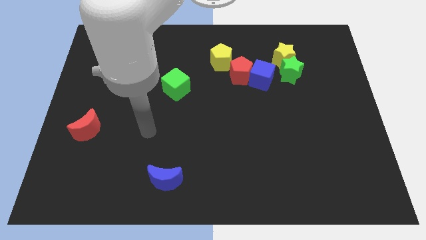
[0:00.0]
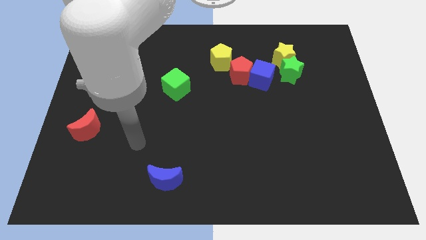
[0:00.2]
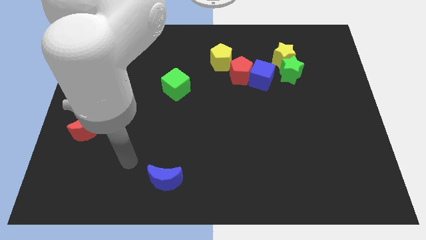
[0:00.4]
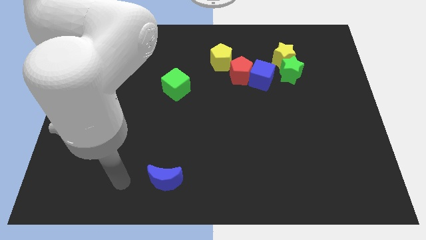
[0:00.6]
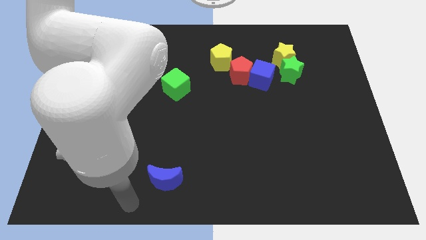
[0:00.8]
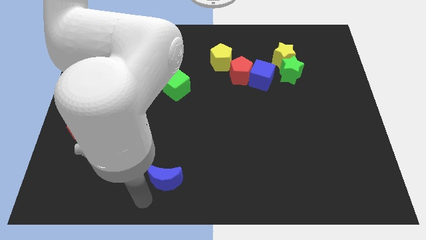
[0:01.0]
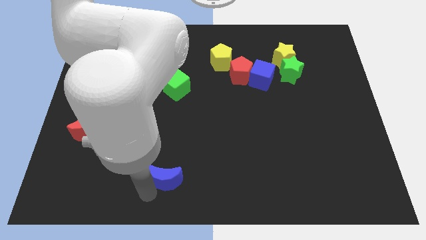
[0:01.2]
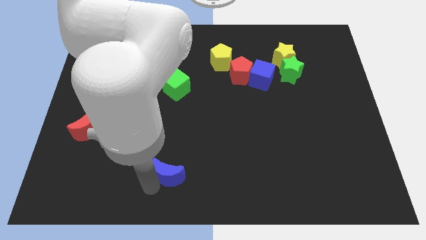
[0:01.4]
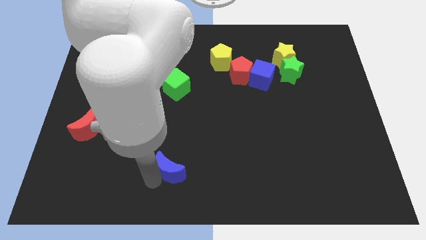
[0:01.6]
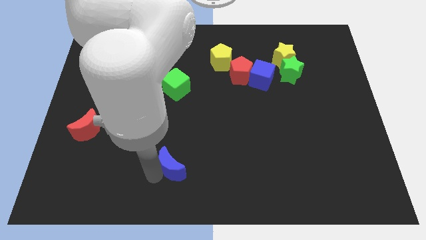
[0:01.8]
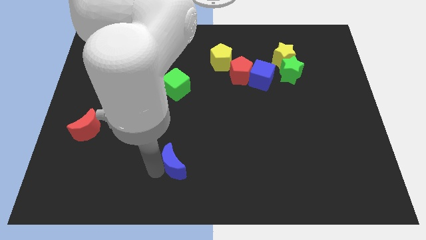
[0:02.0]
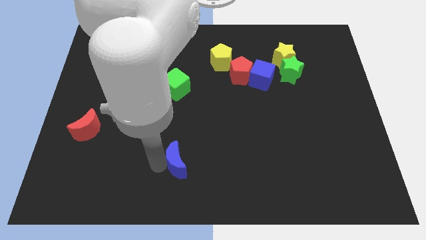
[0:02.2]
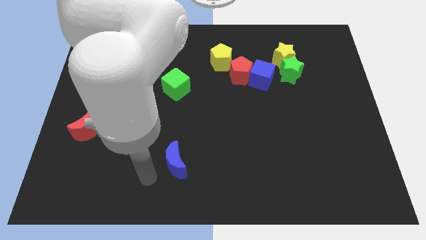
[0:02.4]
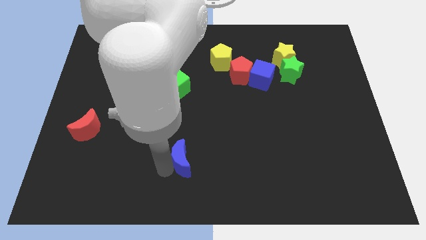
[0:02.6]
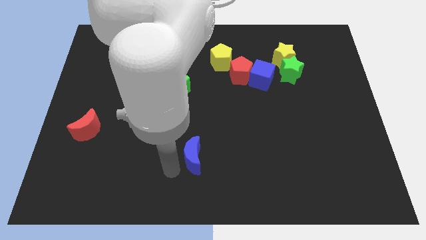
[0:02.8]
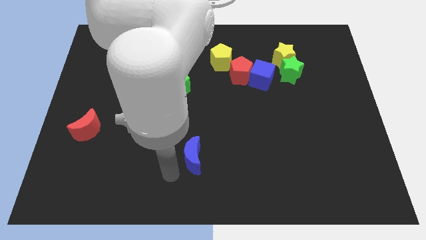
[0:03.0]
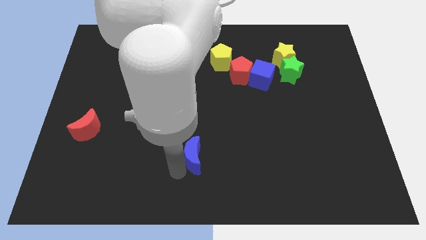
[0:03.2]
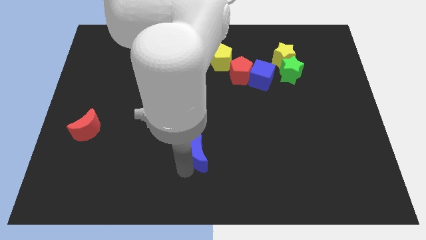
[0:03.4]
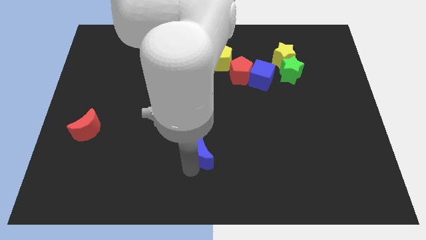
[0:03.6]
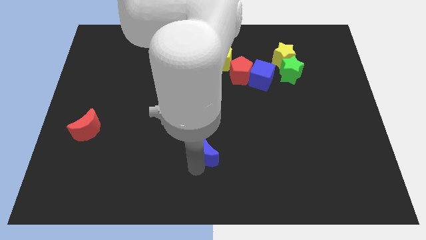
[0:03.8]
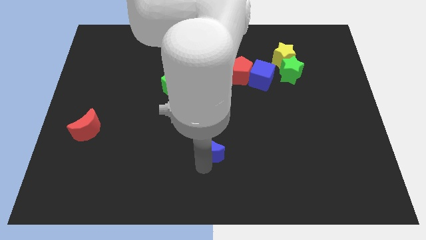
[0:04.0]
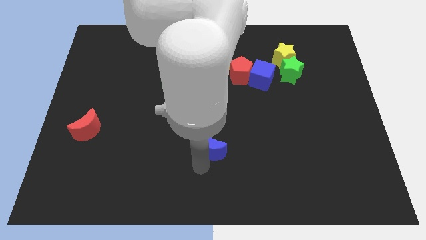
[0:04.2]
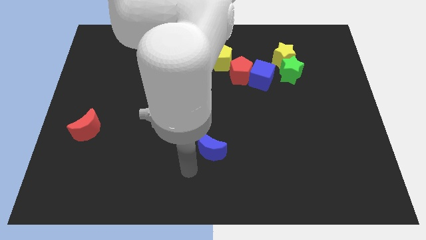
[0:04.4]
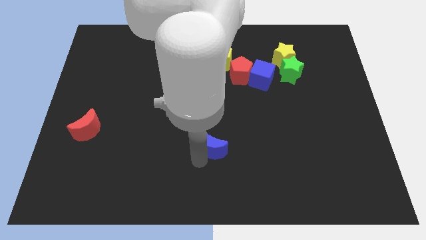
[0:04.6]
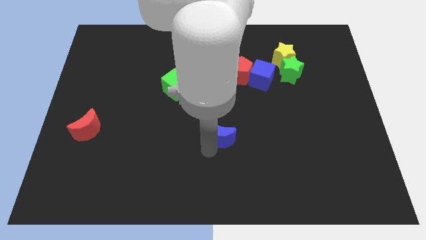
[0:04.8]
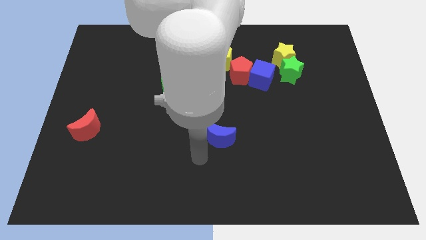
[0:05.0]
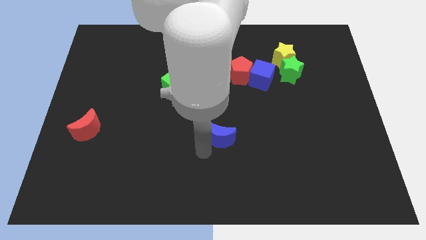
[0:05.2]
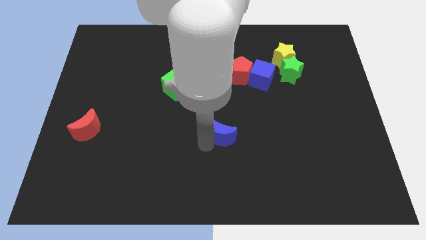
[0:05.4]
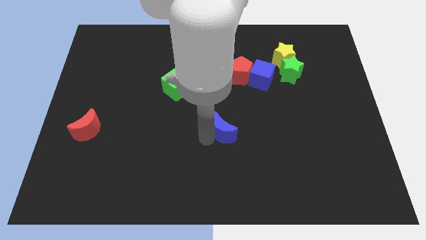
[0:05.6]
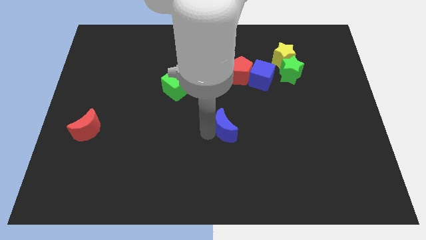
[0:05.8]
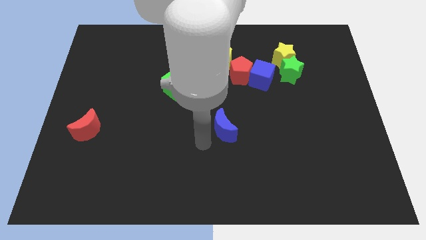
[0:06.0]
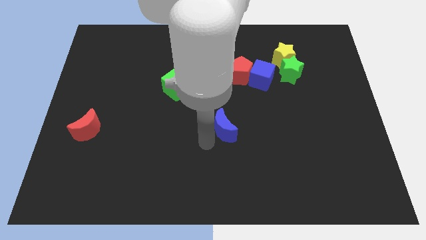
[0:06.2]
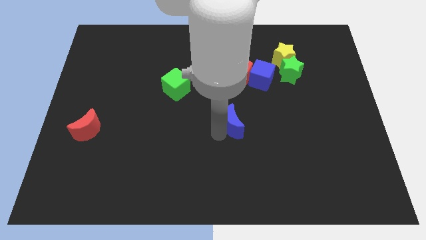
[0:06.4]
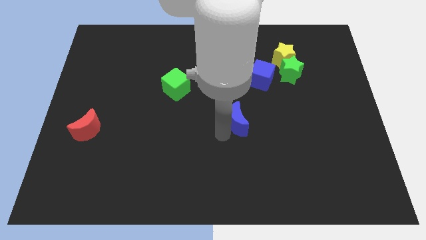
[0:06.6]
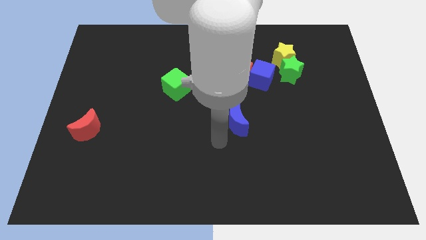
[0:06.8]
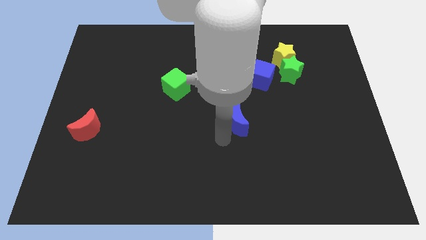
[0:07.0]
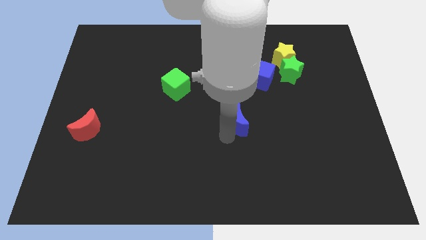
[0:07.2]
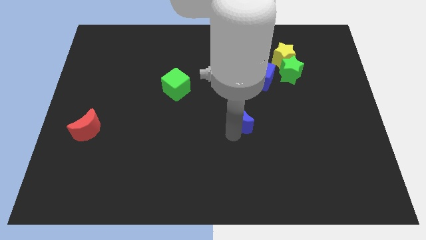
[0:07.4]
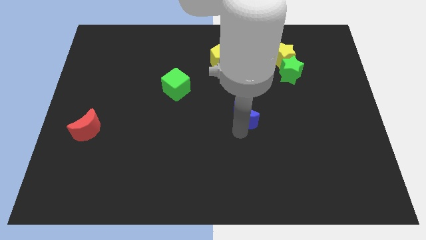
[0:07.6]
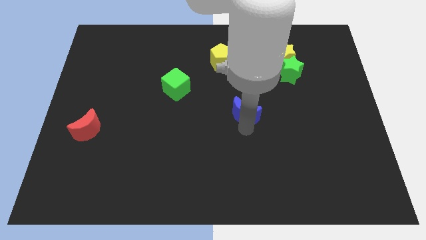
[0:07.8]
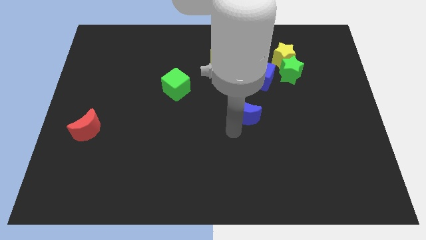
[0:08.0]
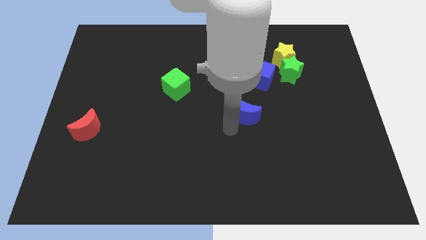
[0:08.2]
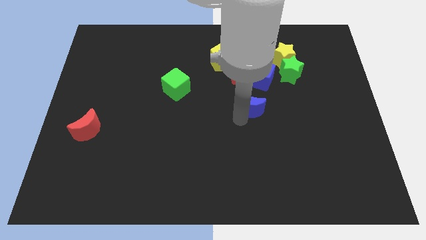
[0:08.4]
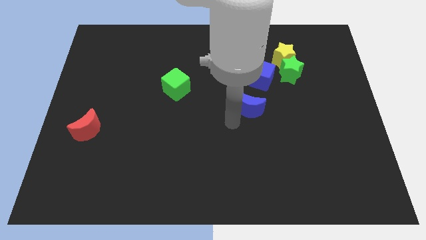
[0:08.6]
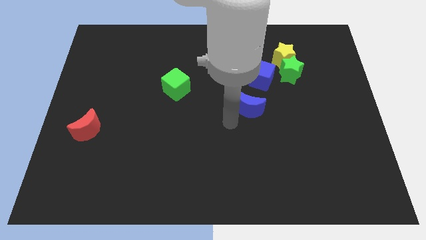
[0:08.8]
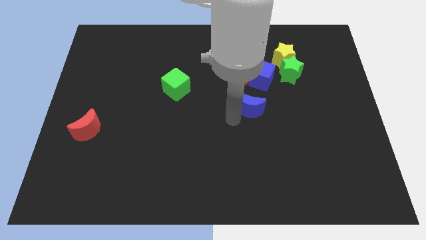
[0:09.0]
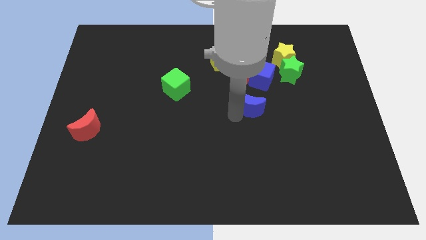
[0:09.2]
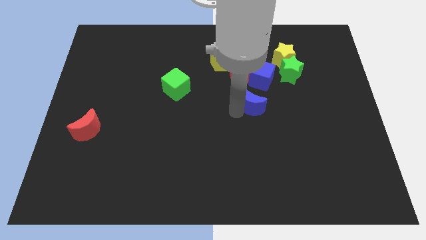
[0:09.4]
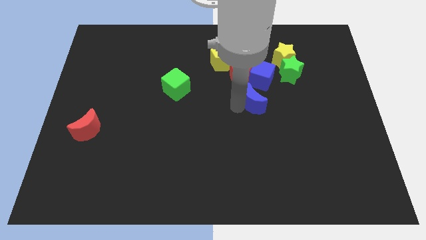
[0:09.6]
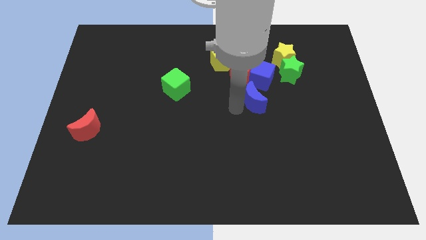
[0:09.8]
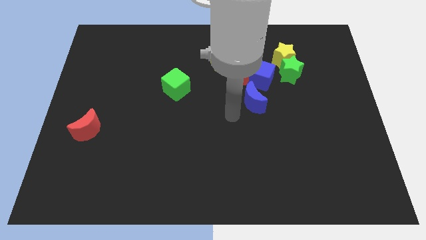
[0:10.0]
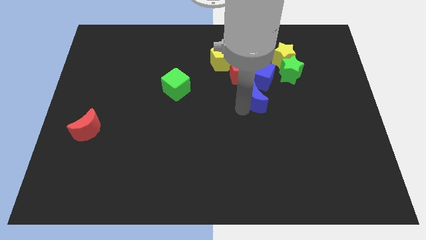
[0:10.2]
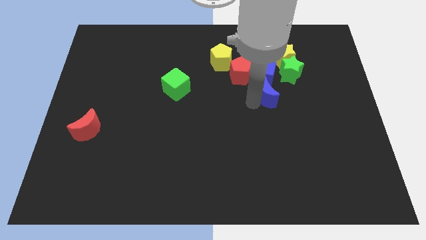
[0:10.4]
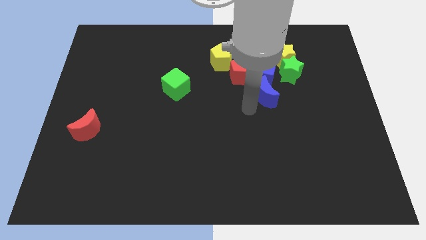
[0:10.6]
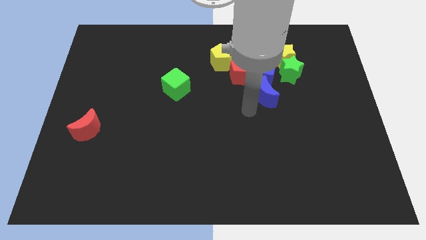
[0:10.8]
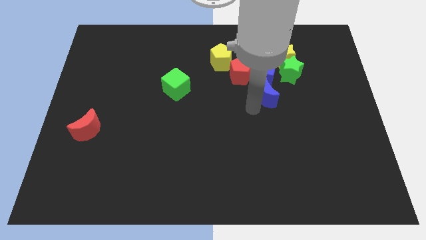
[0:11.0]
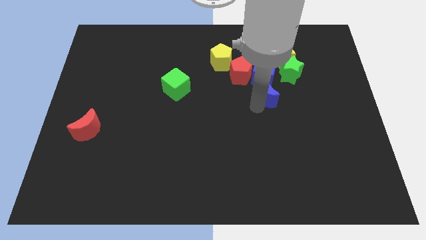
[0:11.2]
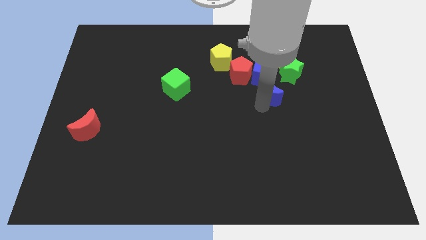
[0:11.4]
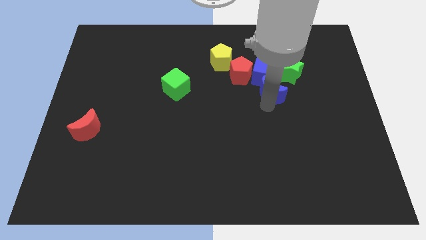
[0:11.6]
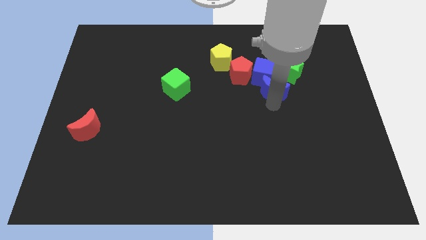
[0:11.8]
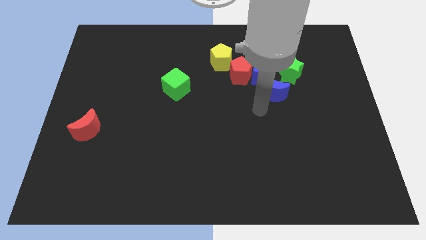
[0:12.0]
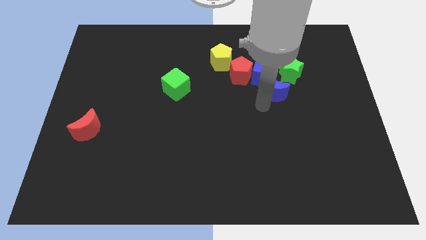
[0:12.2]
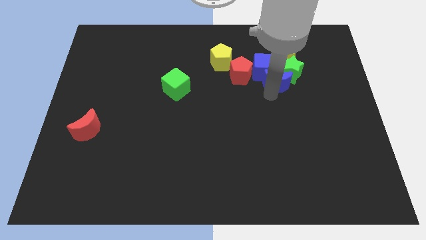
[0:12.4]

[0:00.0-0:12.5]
put the blue moon next to the green star
